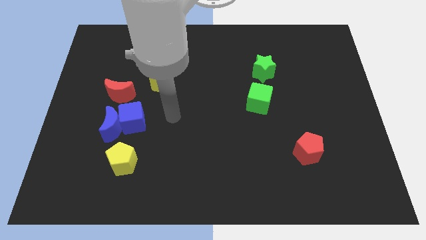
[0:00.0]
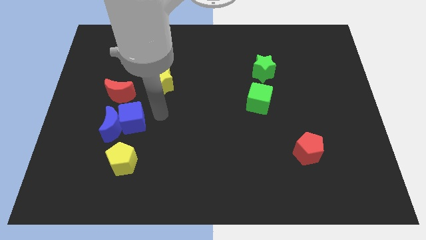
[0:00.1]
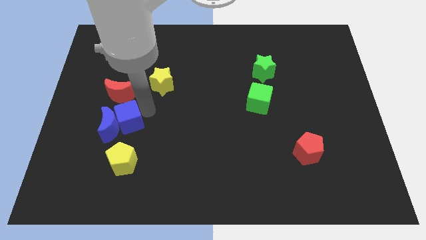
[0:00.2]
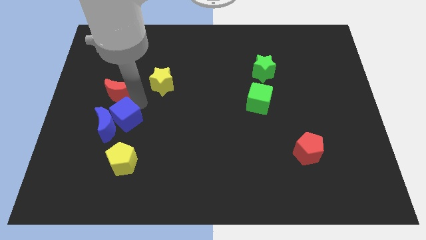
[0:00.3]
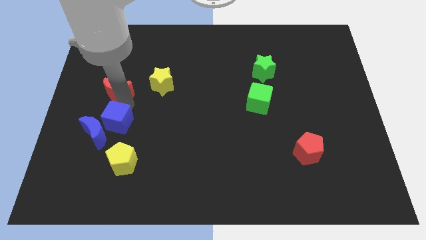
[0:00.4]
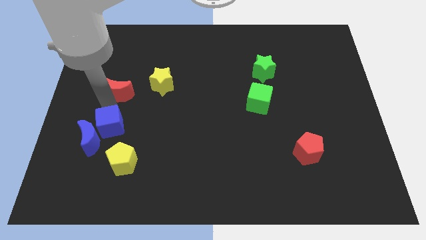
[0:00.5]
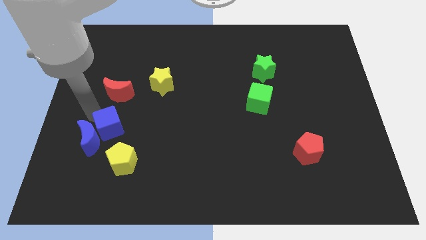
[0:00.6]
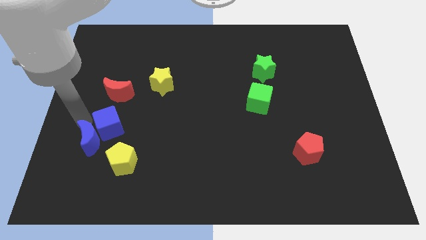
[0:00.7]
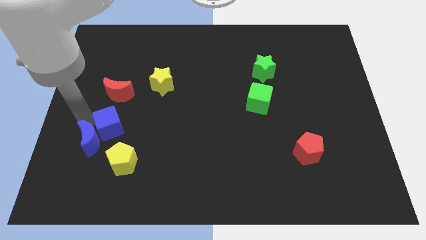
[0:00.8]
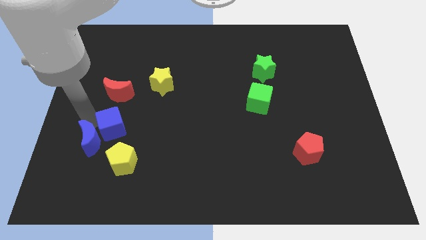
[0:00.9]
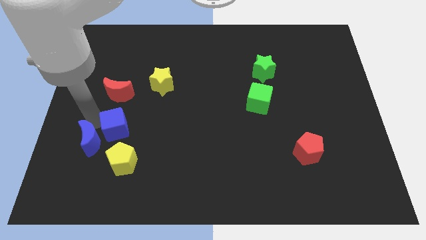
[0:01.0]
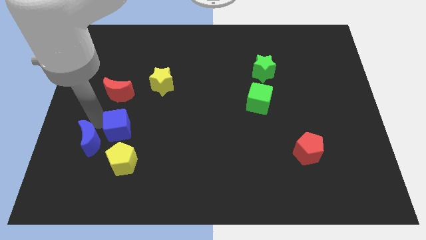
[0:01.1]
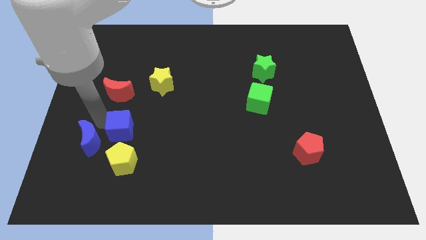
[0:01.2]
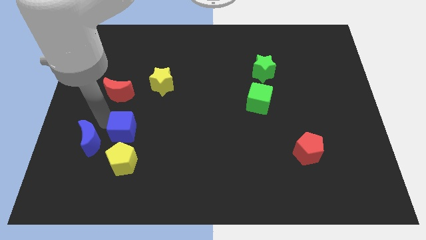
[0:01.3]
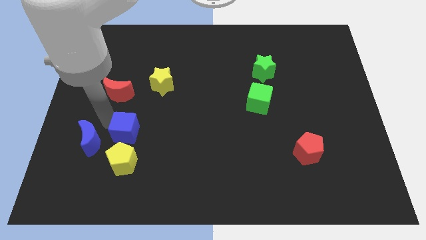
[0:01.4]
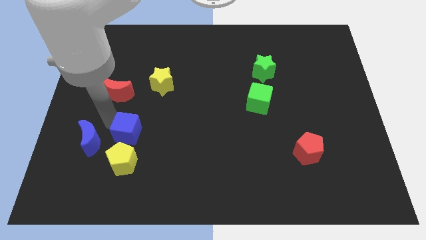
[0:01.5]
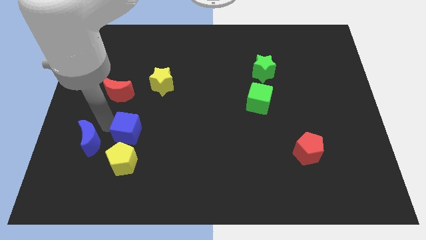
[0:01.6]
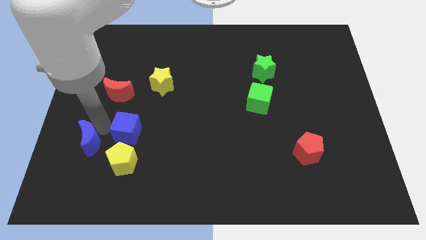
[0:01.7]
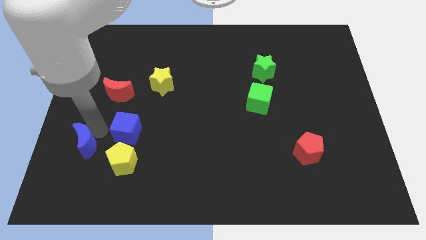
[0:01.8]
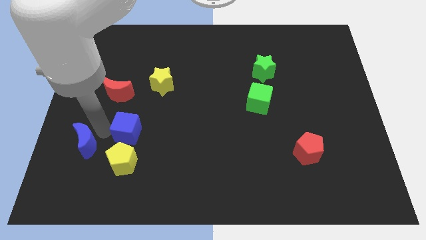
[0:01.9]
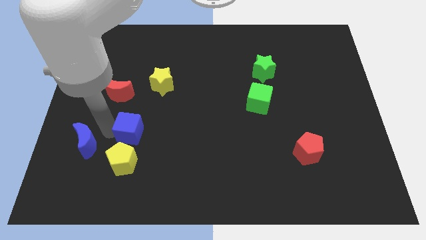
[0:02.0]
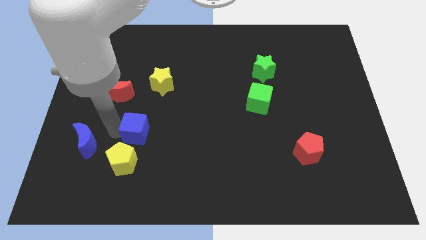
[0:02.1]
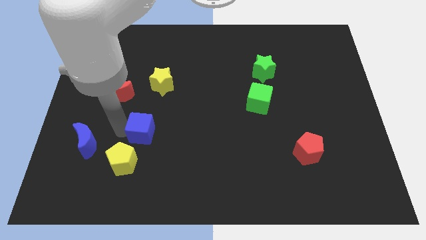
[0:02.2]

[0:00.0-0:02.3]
separate the blue cube from the blue moon and red moon

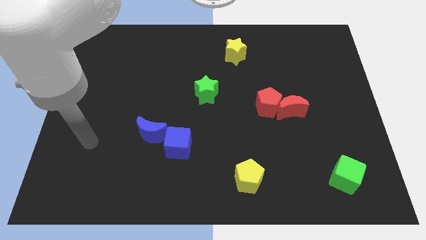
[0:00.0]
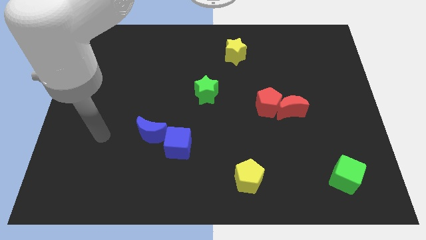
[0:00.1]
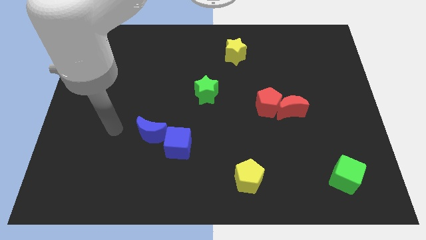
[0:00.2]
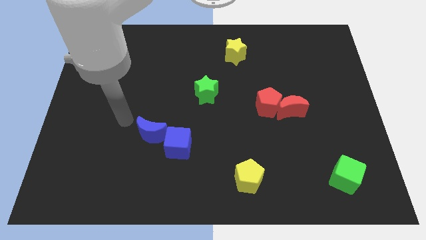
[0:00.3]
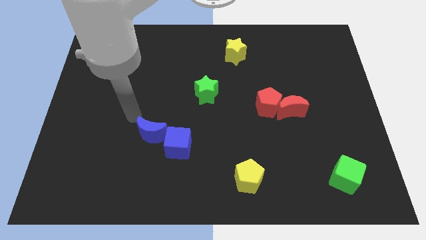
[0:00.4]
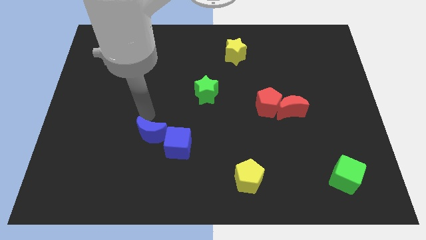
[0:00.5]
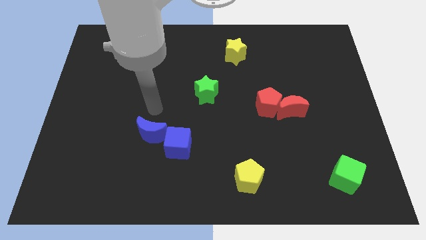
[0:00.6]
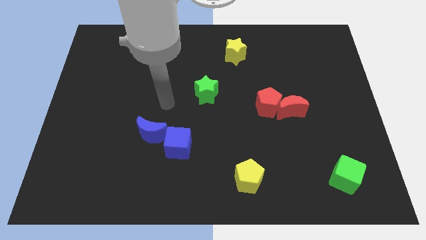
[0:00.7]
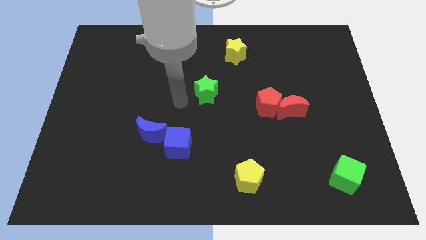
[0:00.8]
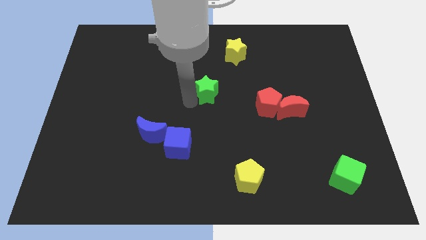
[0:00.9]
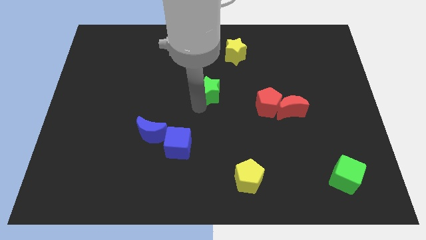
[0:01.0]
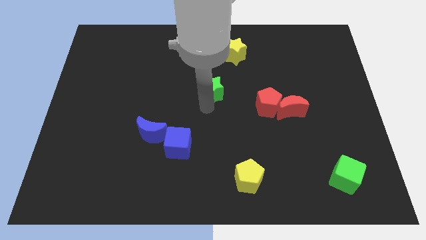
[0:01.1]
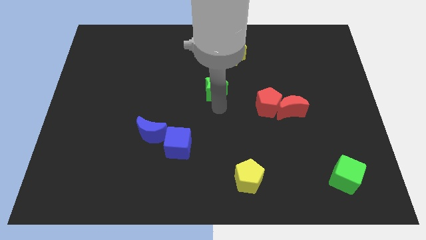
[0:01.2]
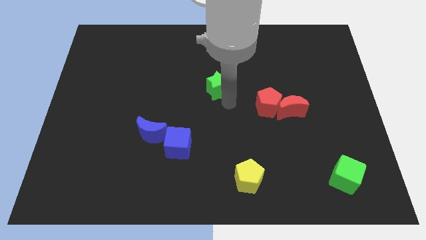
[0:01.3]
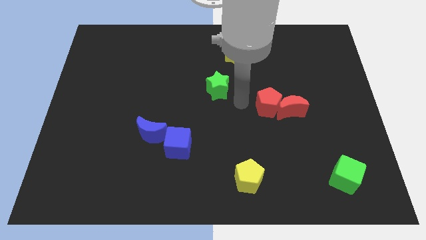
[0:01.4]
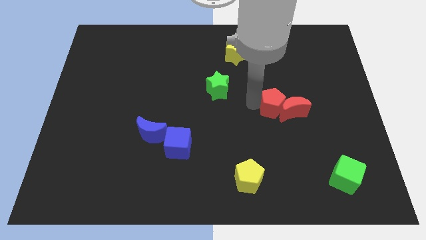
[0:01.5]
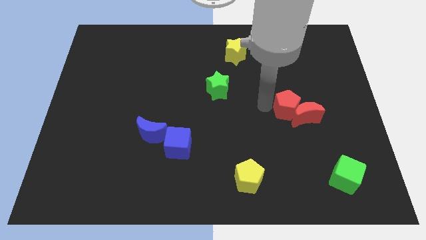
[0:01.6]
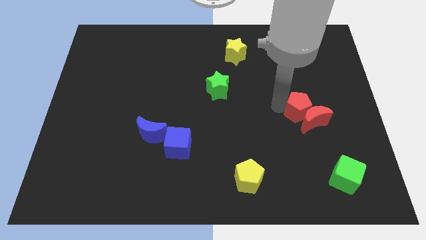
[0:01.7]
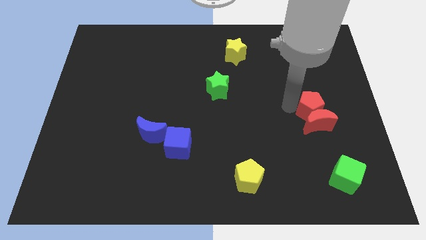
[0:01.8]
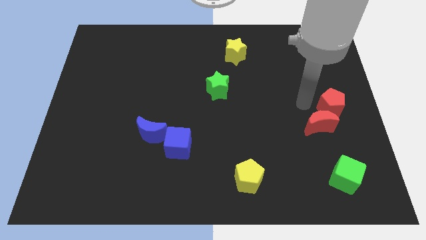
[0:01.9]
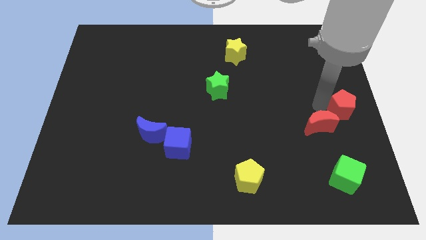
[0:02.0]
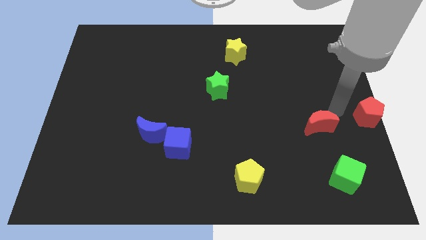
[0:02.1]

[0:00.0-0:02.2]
separate the red moon from the red pentagon

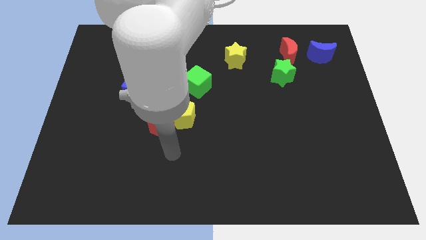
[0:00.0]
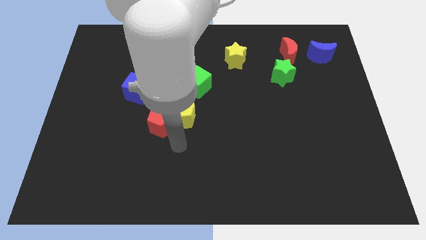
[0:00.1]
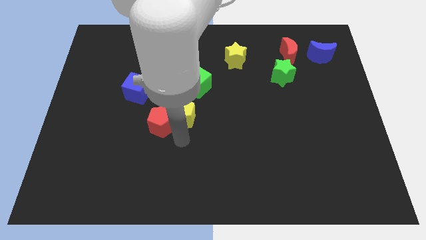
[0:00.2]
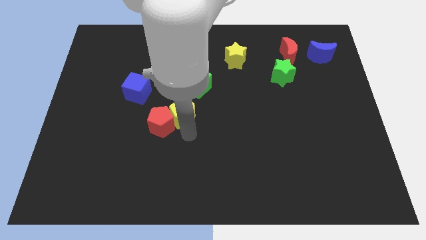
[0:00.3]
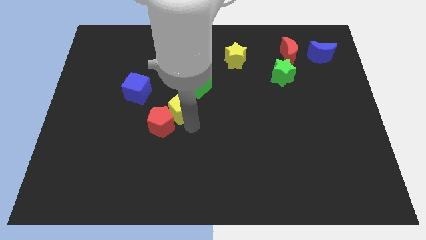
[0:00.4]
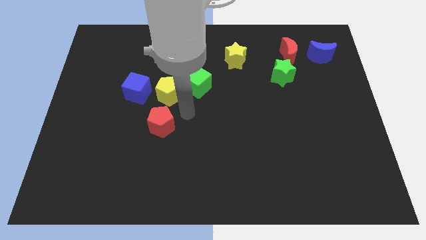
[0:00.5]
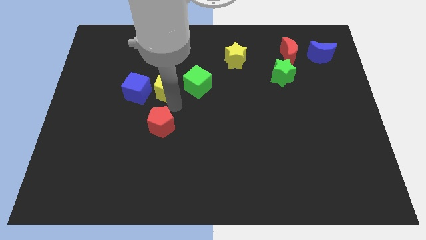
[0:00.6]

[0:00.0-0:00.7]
pull the red pentagon apart from the yellow pentagon

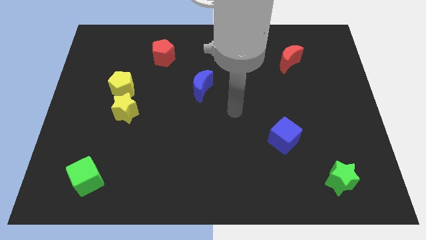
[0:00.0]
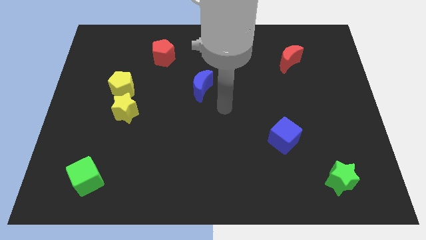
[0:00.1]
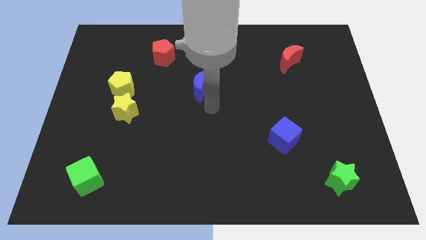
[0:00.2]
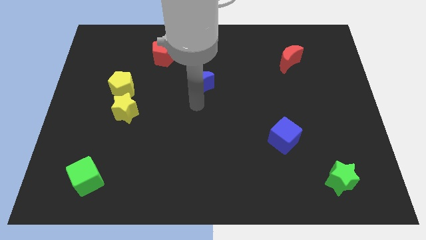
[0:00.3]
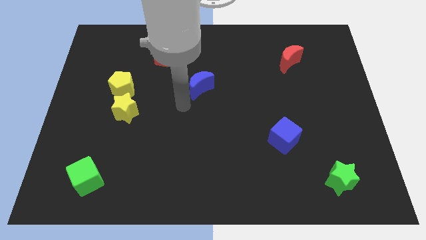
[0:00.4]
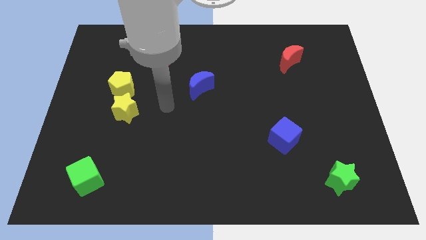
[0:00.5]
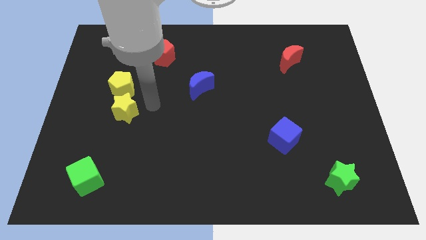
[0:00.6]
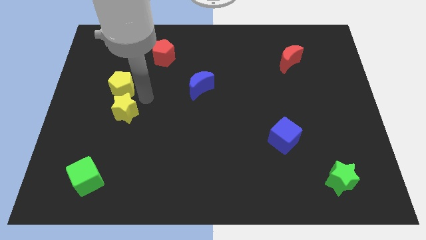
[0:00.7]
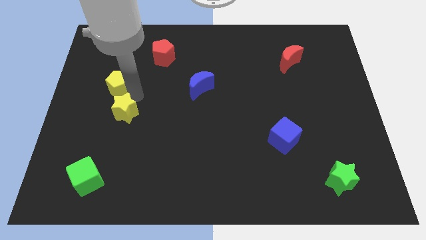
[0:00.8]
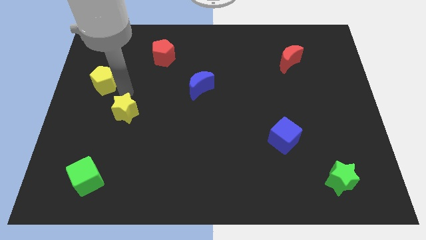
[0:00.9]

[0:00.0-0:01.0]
move the yellow star away from the yellow pentagon

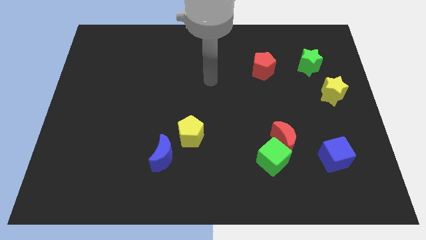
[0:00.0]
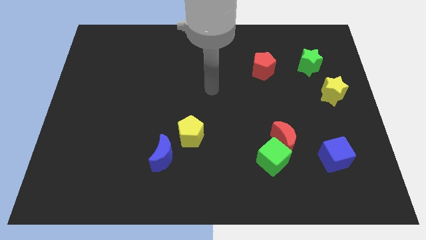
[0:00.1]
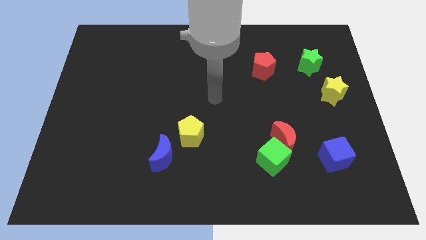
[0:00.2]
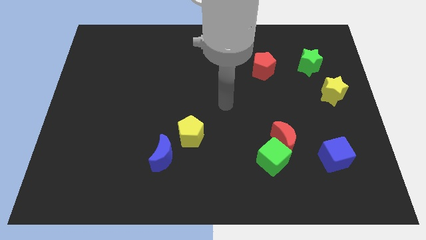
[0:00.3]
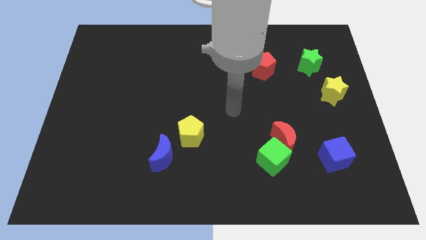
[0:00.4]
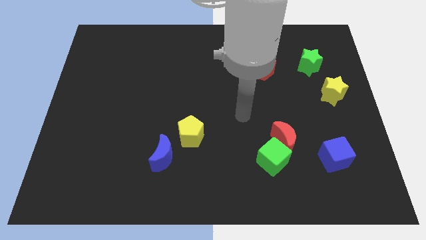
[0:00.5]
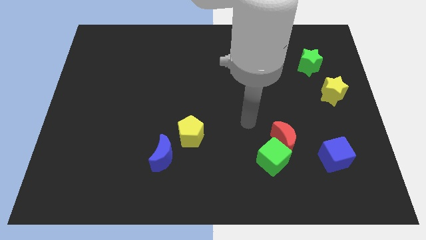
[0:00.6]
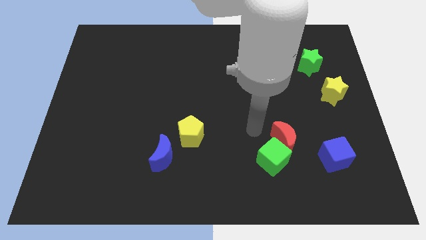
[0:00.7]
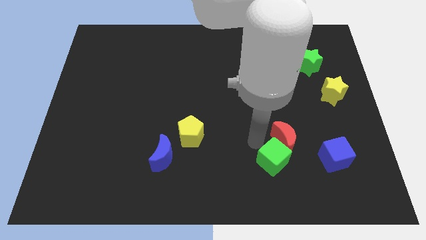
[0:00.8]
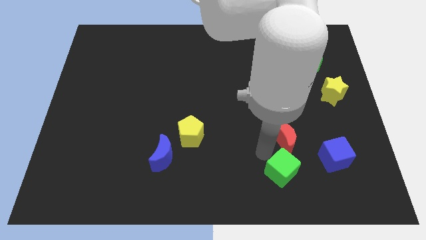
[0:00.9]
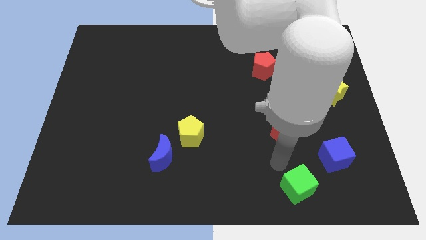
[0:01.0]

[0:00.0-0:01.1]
move the red moon away from the green cube

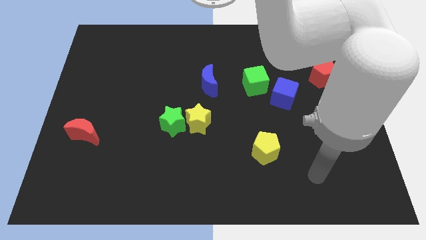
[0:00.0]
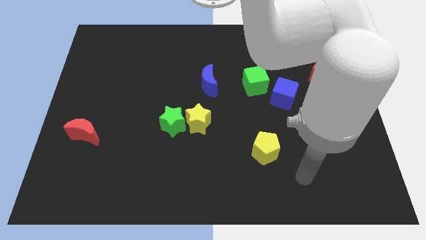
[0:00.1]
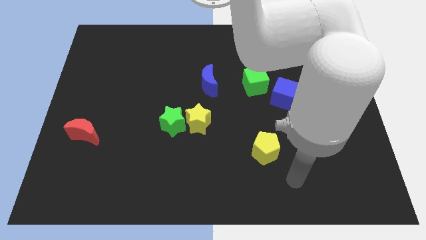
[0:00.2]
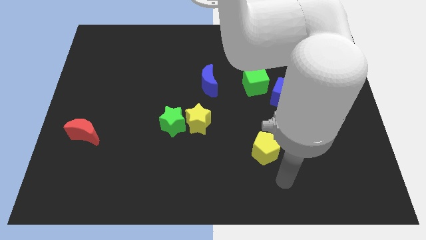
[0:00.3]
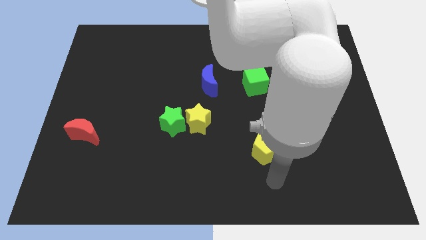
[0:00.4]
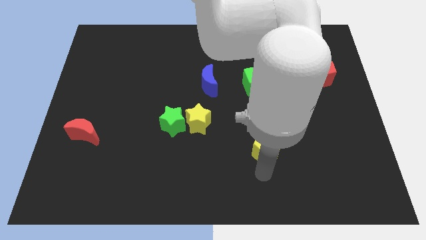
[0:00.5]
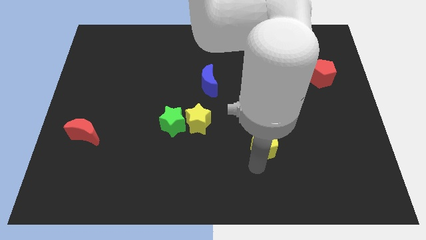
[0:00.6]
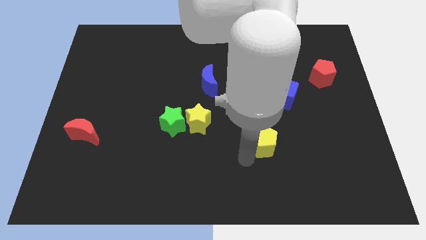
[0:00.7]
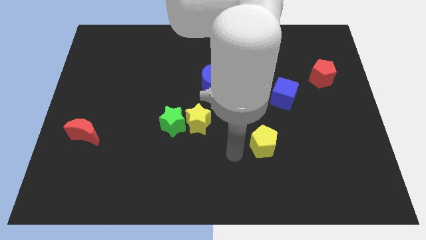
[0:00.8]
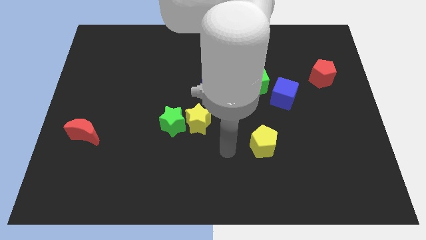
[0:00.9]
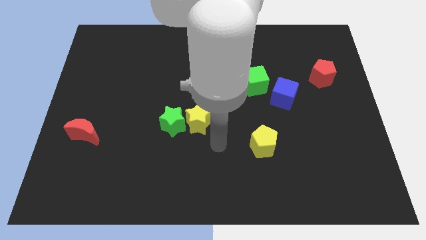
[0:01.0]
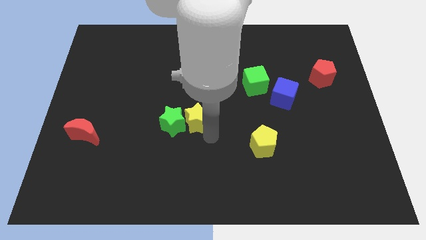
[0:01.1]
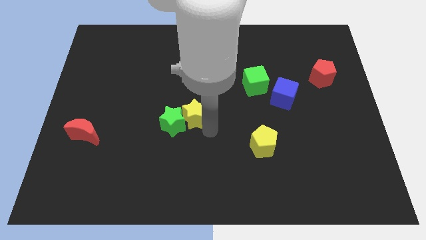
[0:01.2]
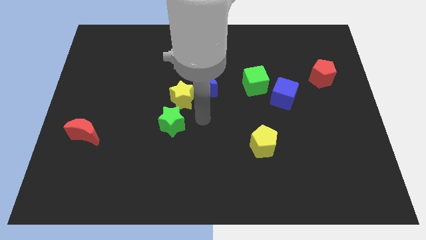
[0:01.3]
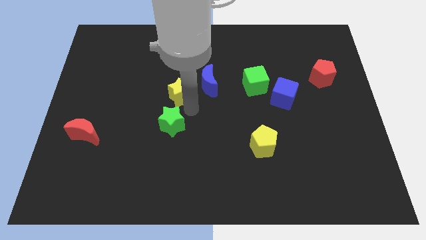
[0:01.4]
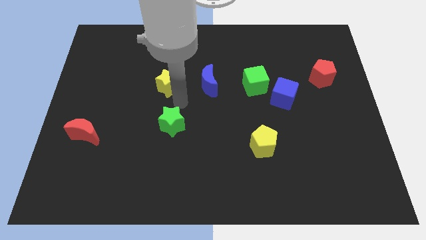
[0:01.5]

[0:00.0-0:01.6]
pull the green star apart from the yellow star

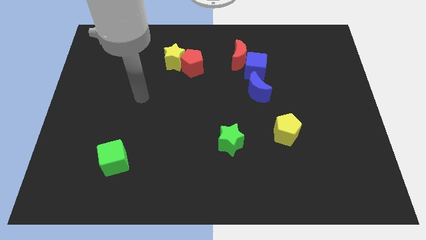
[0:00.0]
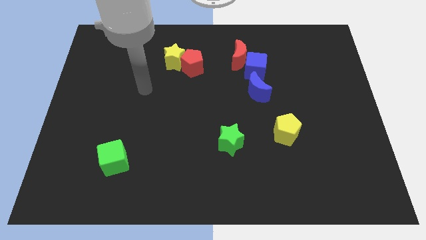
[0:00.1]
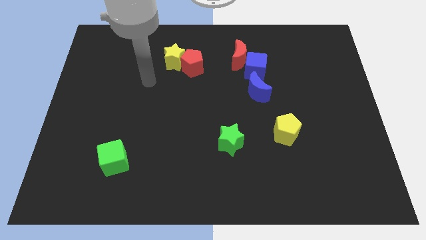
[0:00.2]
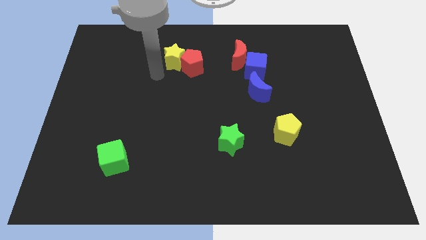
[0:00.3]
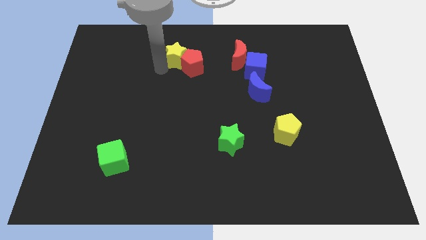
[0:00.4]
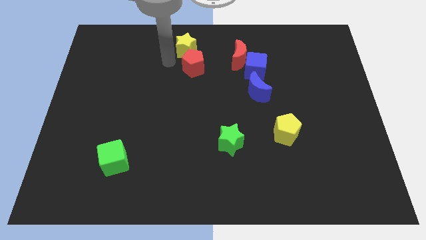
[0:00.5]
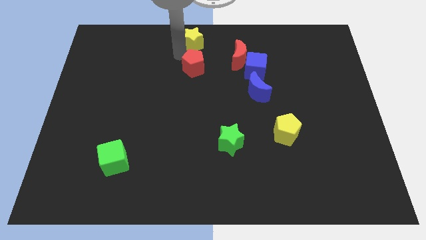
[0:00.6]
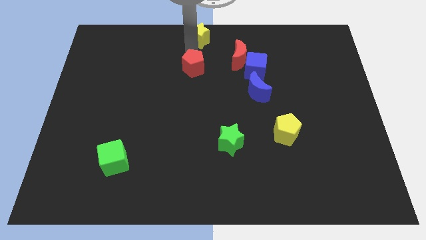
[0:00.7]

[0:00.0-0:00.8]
move the red pentagon away from the yellow star
